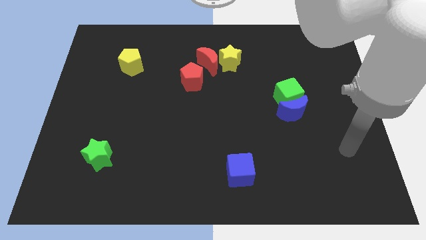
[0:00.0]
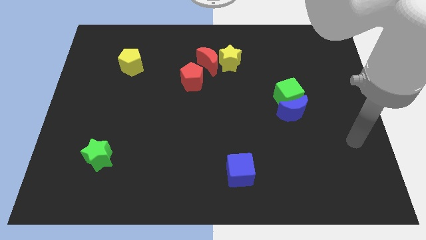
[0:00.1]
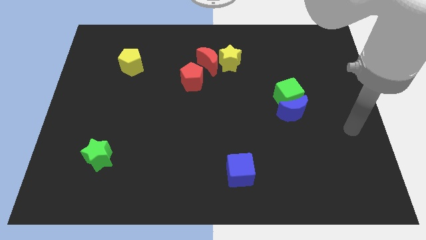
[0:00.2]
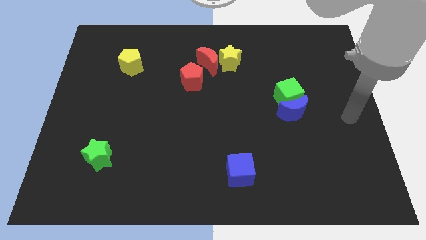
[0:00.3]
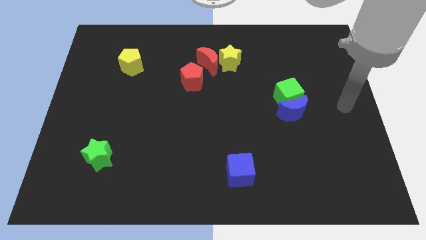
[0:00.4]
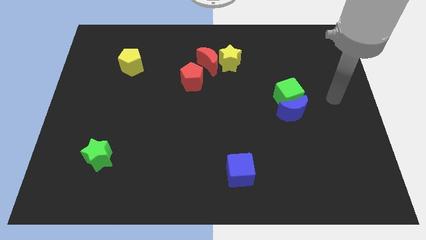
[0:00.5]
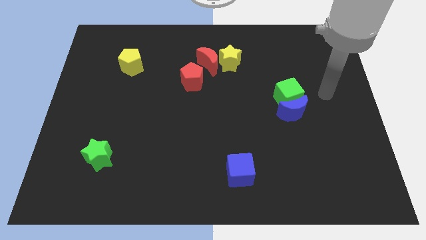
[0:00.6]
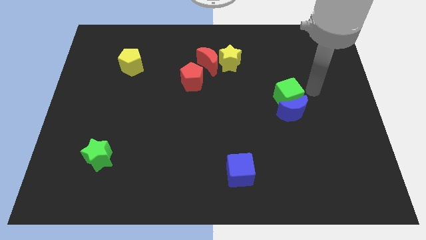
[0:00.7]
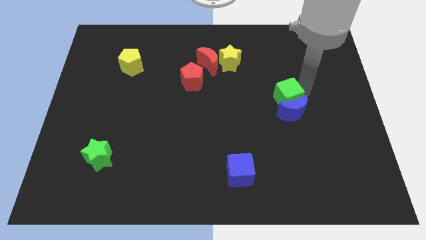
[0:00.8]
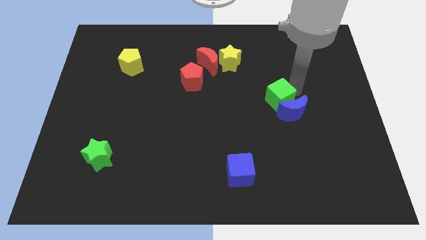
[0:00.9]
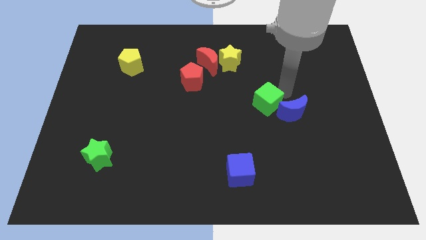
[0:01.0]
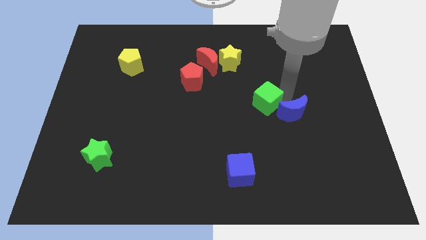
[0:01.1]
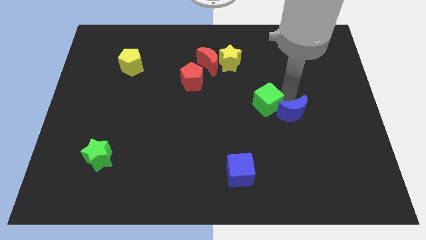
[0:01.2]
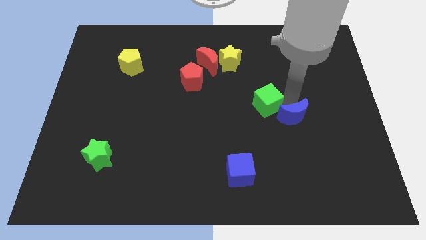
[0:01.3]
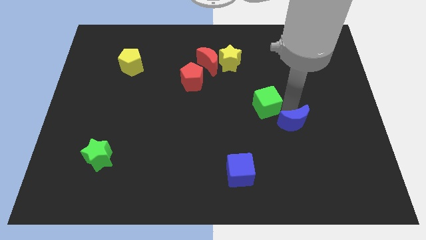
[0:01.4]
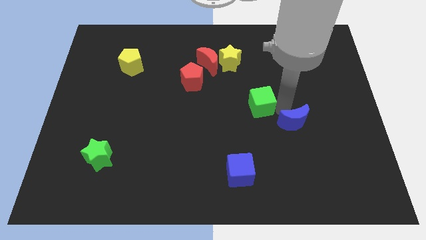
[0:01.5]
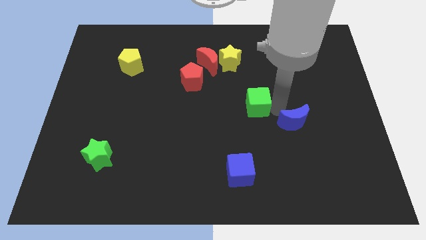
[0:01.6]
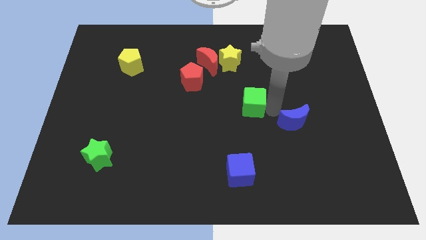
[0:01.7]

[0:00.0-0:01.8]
pull the blue moon apart from the green cube

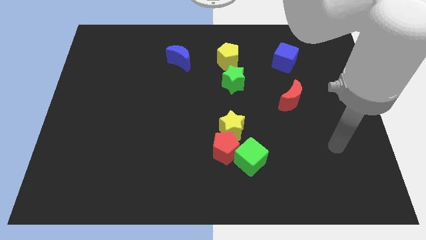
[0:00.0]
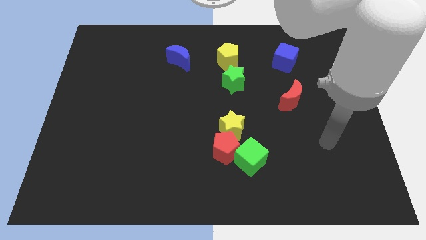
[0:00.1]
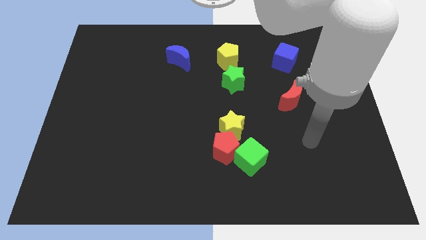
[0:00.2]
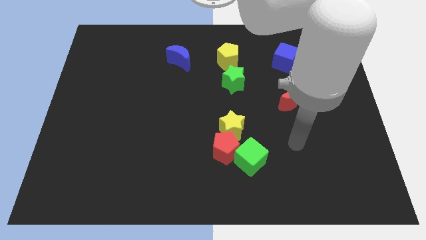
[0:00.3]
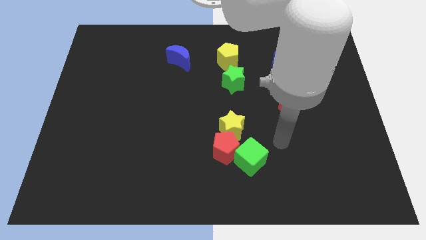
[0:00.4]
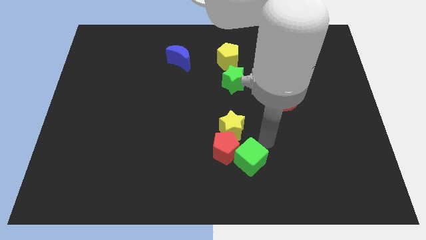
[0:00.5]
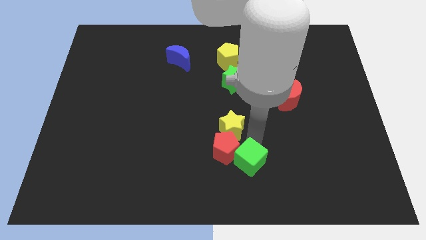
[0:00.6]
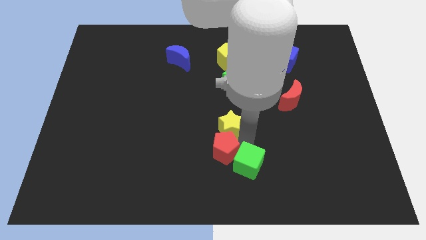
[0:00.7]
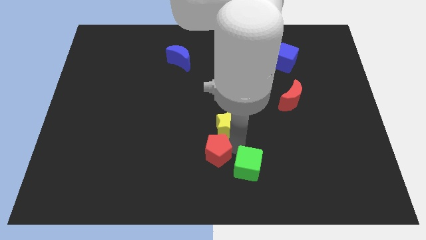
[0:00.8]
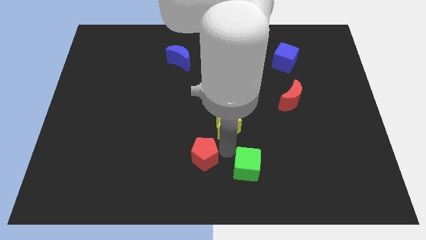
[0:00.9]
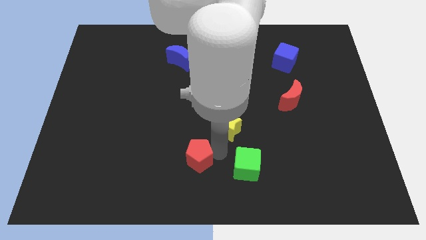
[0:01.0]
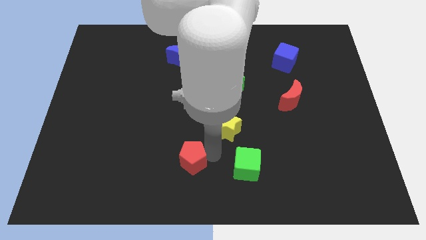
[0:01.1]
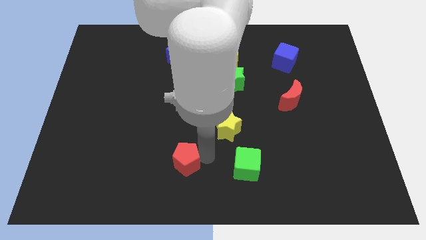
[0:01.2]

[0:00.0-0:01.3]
pull the red pentagon apart from the yellow star and green cube

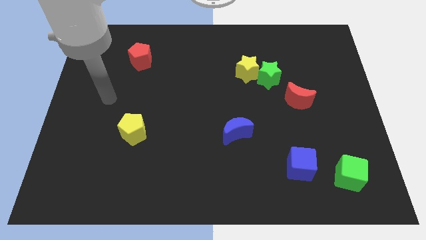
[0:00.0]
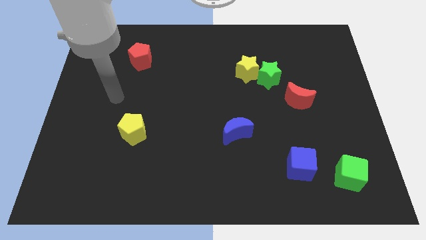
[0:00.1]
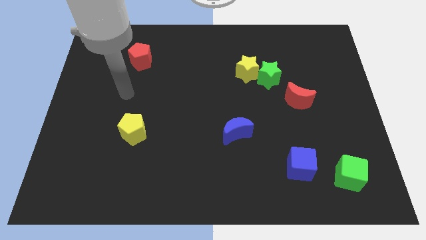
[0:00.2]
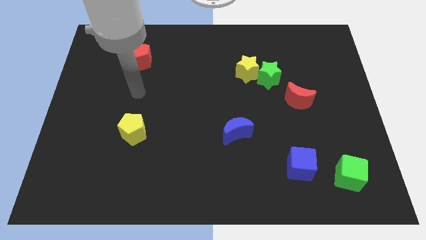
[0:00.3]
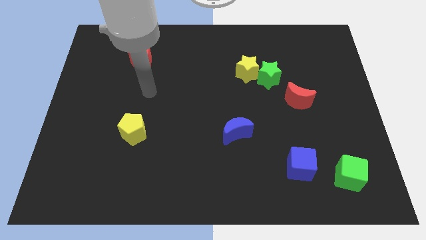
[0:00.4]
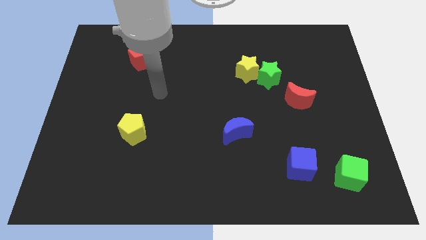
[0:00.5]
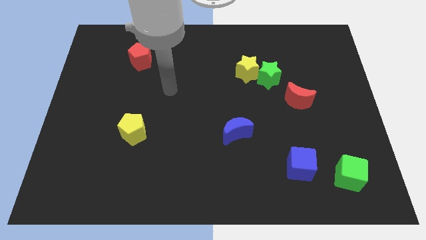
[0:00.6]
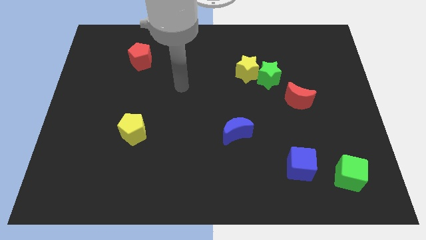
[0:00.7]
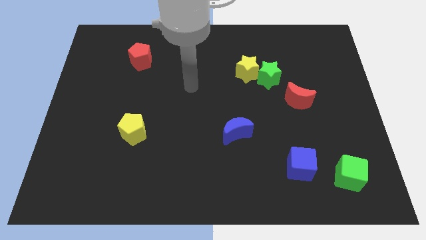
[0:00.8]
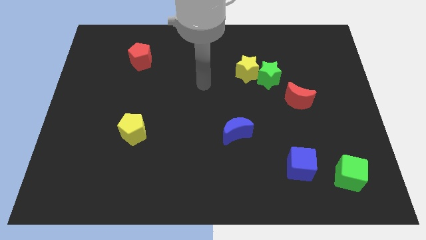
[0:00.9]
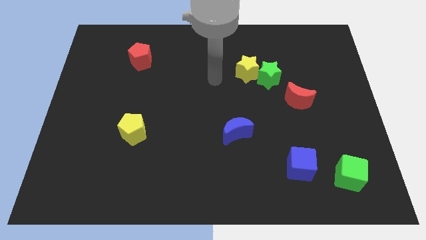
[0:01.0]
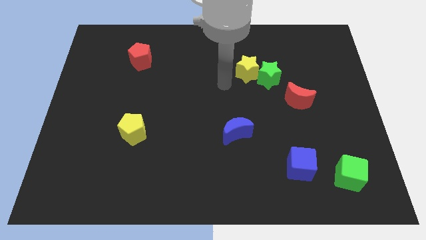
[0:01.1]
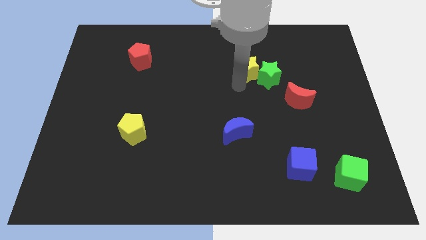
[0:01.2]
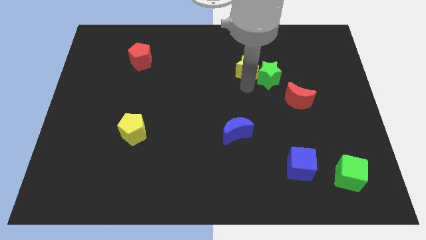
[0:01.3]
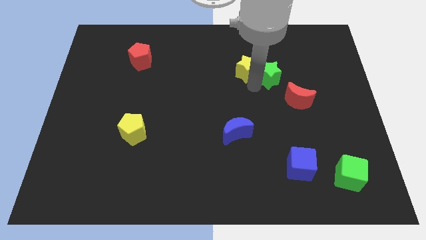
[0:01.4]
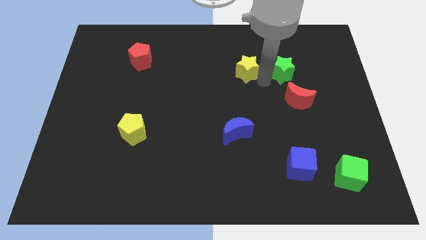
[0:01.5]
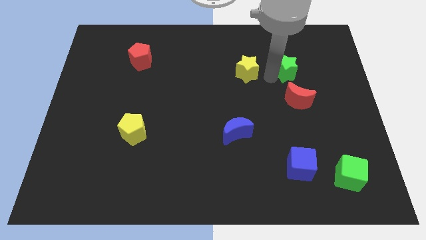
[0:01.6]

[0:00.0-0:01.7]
pull the yellow star apart from the green star

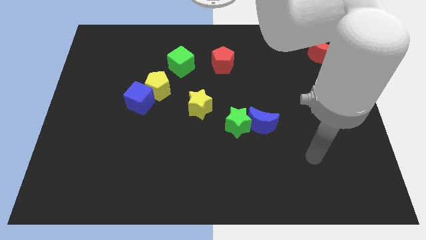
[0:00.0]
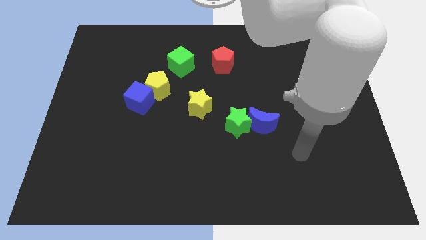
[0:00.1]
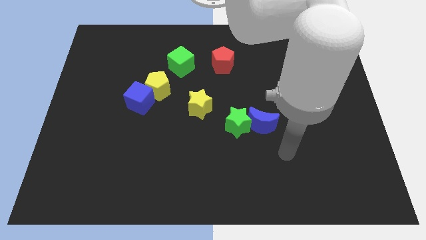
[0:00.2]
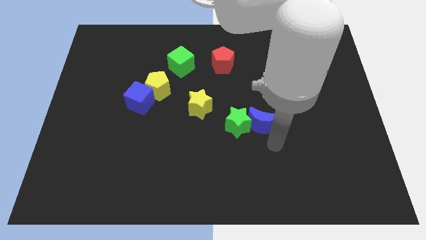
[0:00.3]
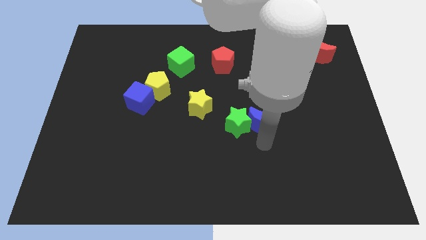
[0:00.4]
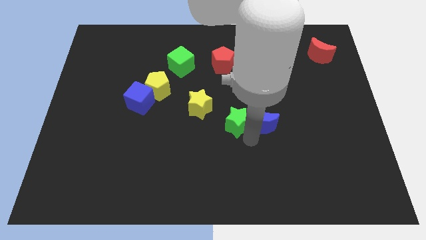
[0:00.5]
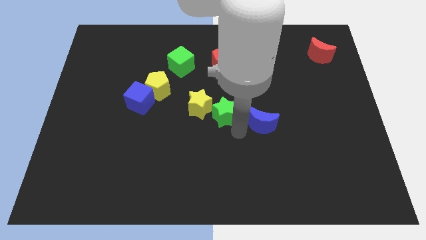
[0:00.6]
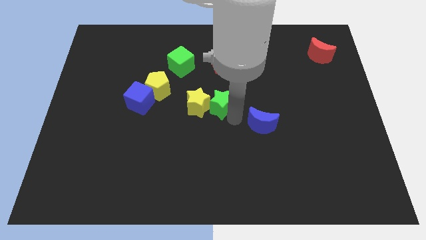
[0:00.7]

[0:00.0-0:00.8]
move the blue moon away from the green star

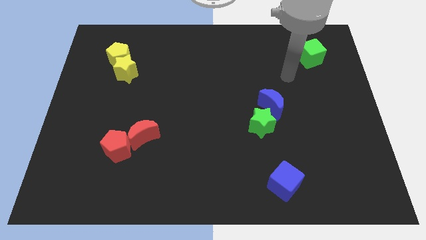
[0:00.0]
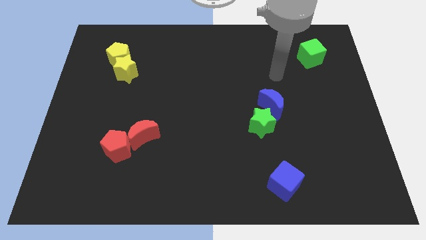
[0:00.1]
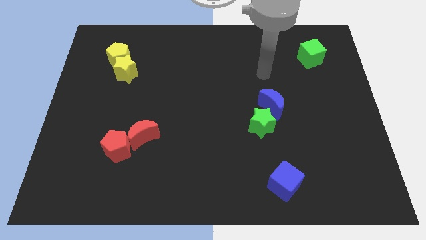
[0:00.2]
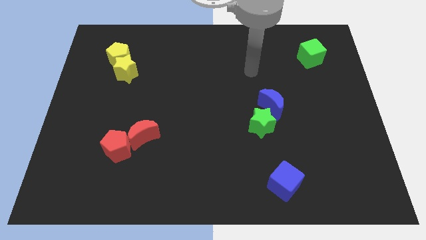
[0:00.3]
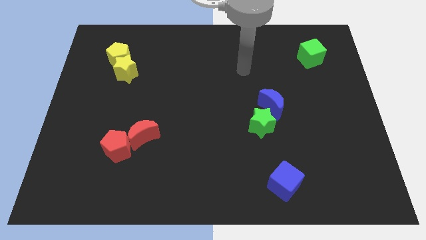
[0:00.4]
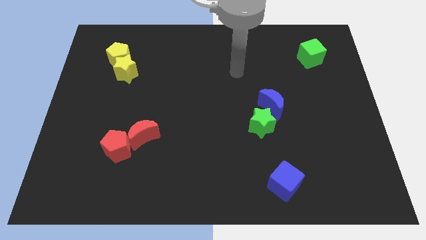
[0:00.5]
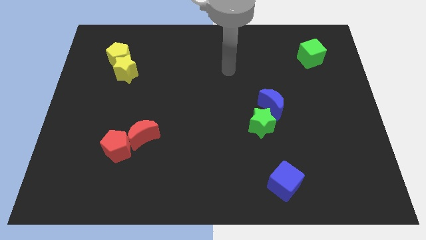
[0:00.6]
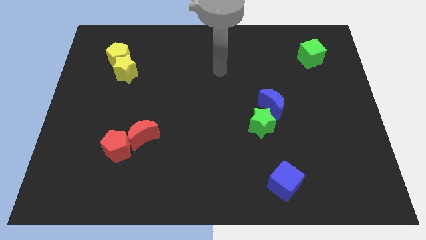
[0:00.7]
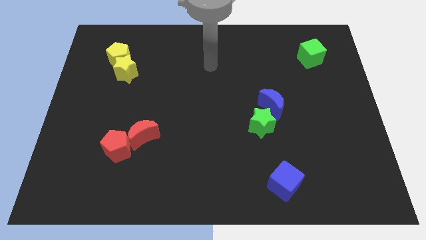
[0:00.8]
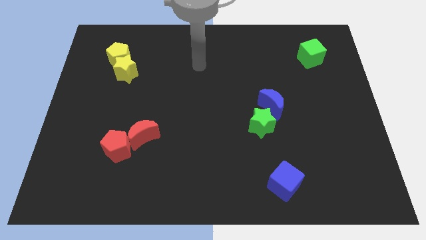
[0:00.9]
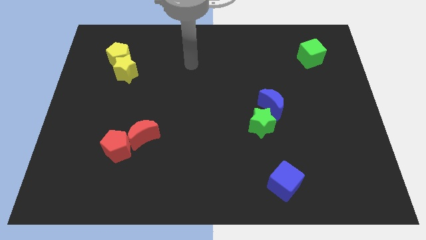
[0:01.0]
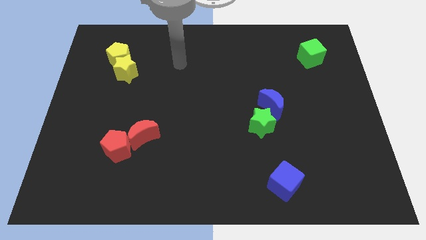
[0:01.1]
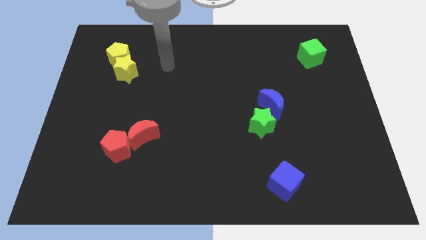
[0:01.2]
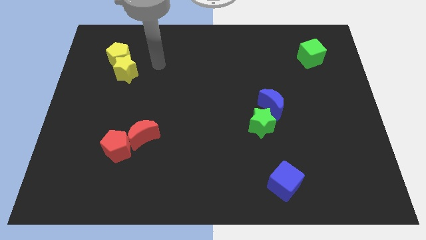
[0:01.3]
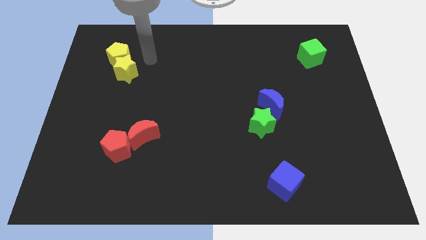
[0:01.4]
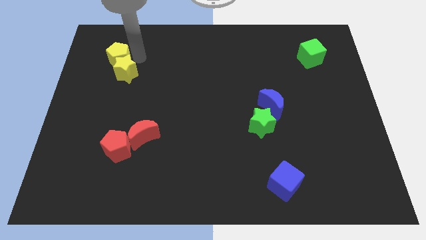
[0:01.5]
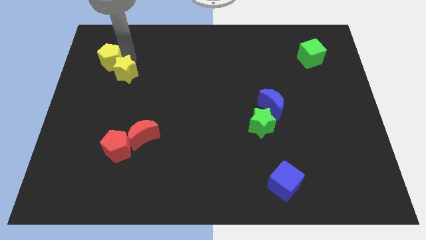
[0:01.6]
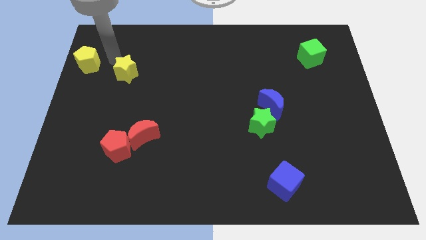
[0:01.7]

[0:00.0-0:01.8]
pull the yellow star apart from the yellow pentagon

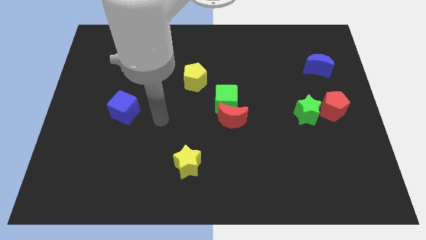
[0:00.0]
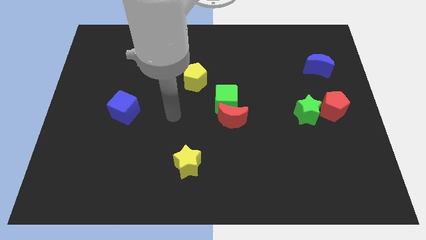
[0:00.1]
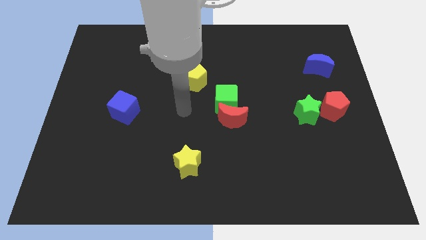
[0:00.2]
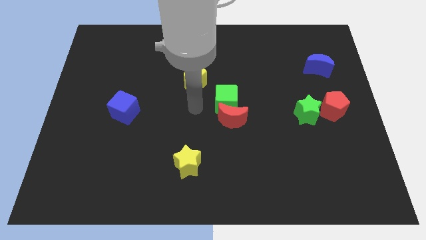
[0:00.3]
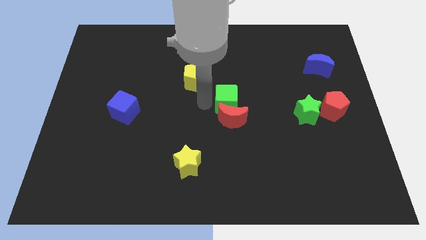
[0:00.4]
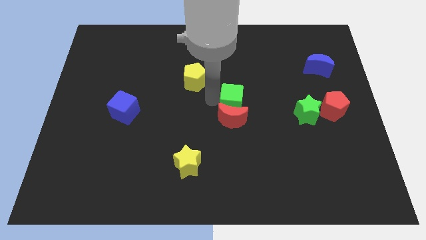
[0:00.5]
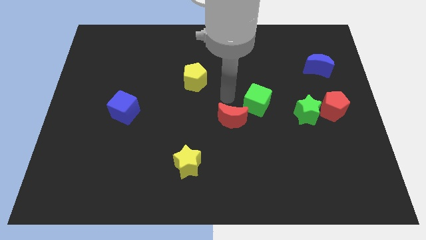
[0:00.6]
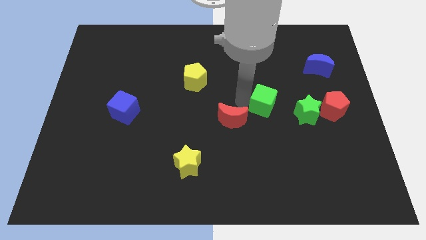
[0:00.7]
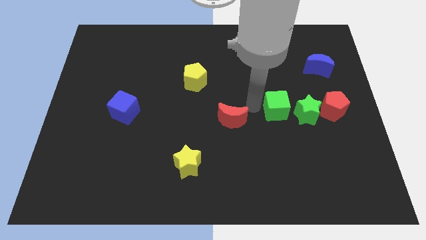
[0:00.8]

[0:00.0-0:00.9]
separate the red moon from the green cube

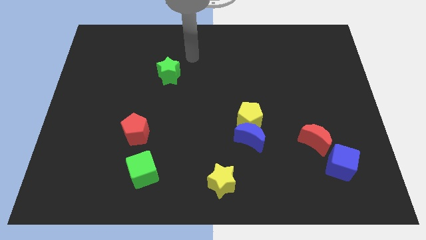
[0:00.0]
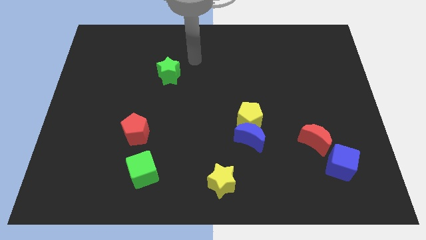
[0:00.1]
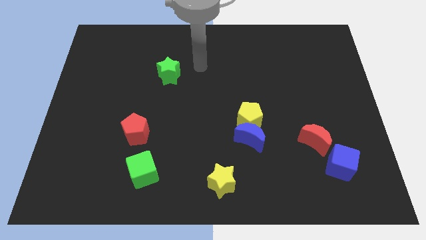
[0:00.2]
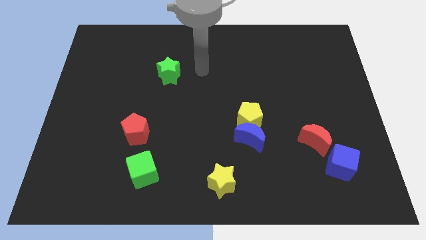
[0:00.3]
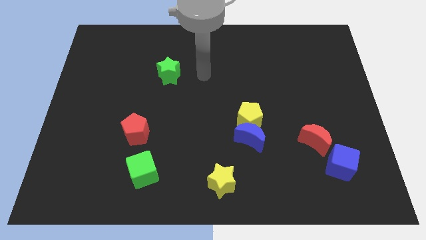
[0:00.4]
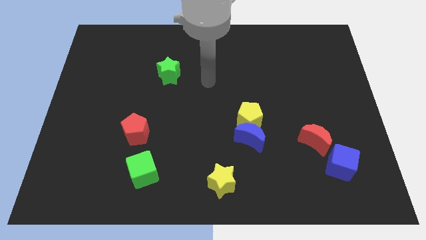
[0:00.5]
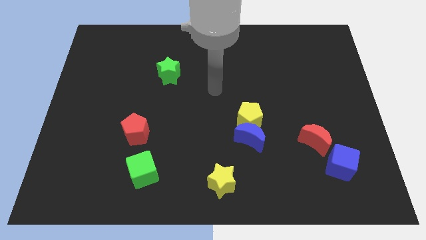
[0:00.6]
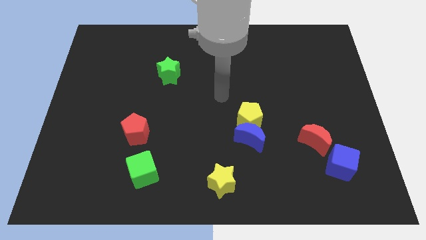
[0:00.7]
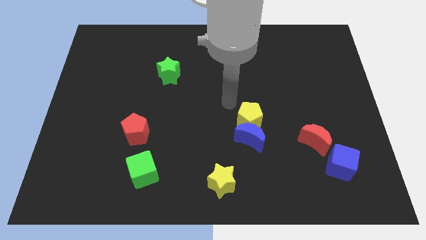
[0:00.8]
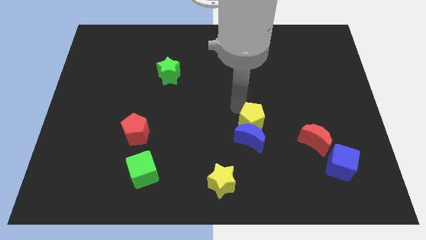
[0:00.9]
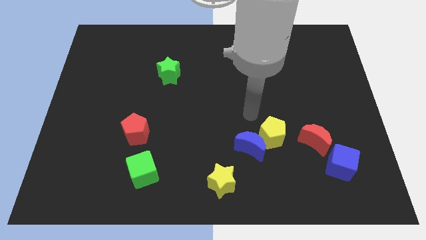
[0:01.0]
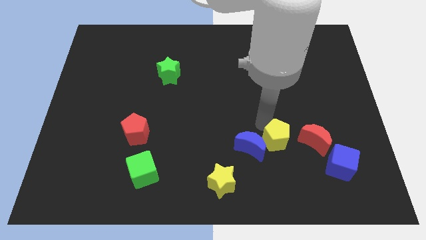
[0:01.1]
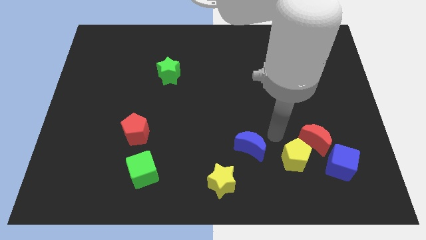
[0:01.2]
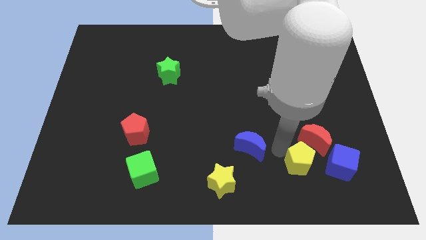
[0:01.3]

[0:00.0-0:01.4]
move the blue moon away from the yellow pentagon
